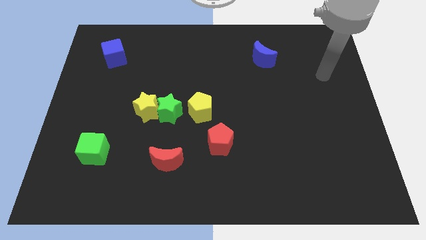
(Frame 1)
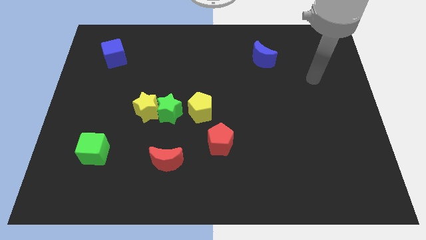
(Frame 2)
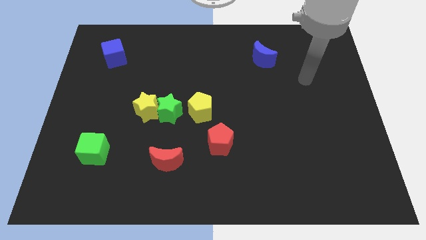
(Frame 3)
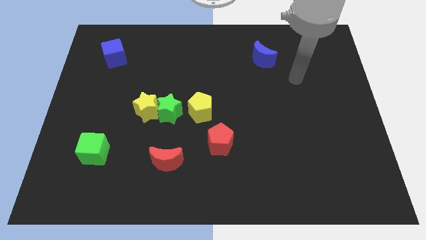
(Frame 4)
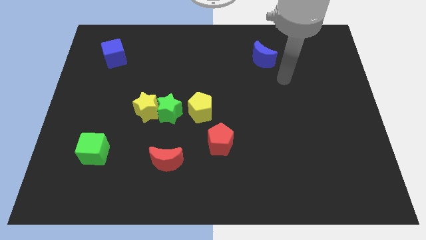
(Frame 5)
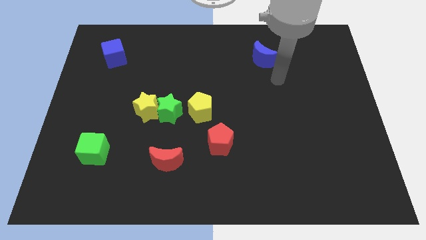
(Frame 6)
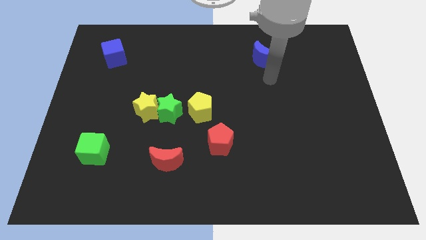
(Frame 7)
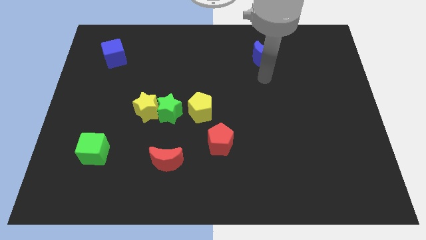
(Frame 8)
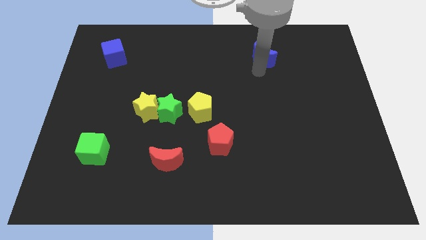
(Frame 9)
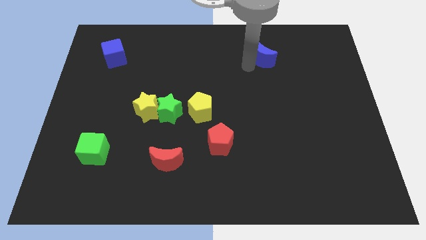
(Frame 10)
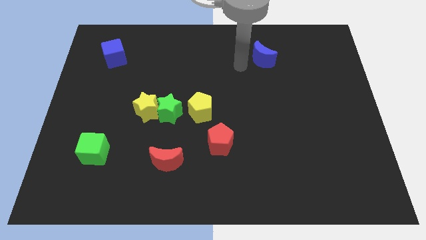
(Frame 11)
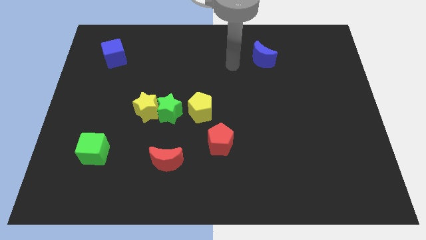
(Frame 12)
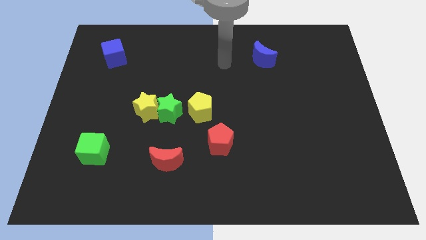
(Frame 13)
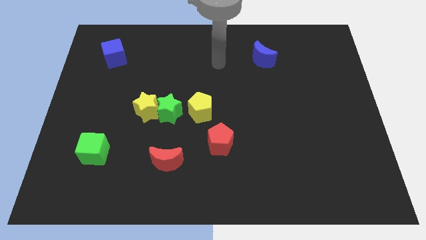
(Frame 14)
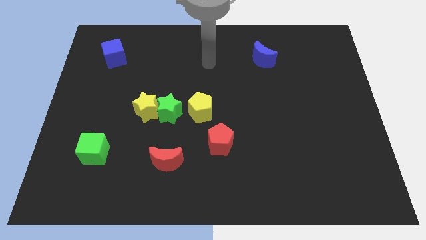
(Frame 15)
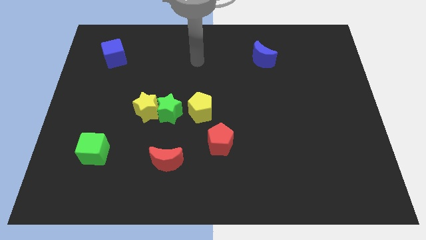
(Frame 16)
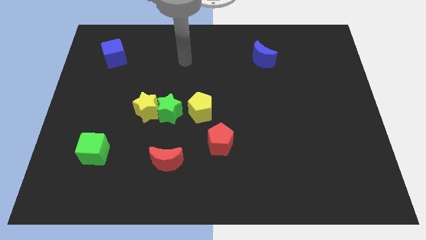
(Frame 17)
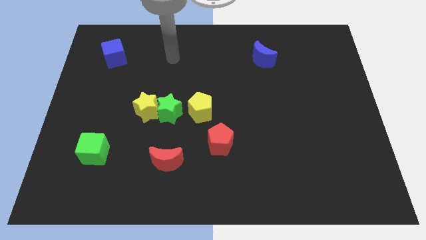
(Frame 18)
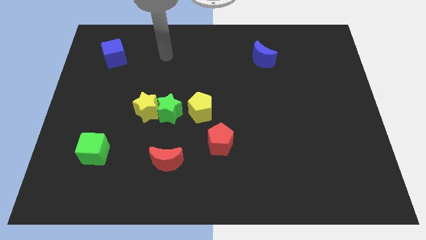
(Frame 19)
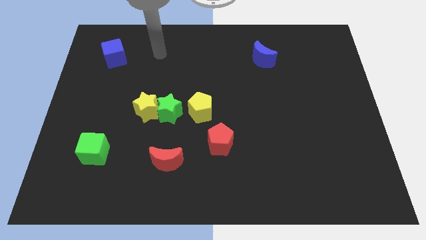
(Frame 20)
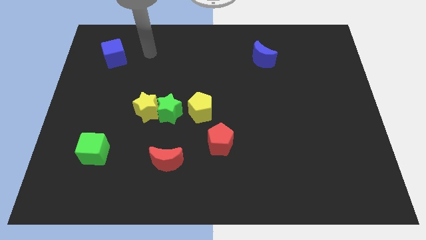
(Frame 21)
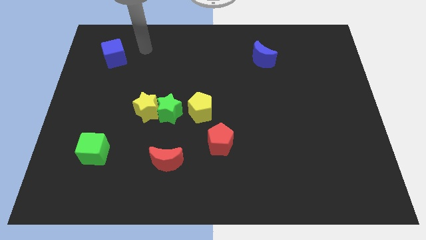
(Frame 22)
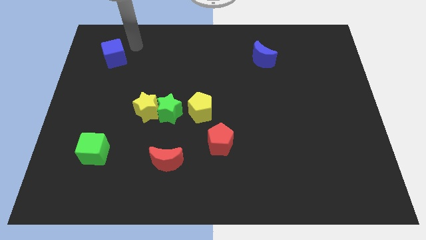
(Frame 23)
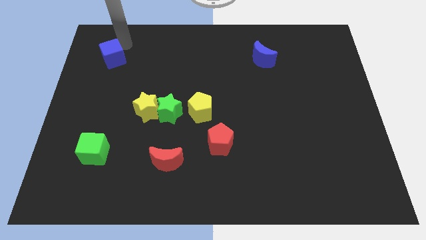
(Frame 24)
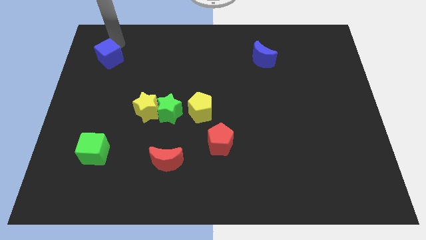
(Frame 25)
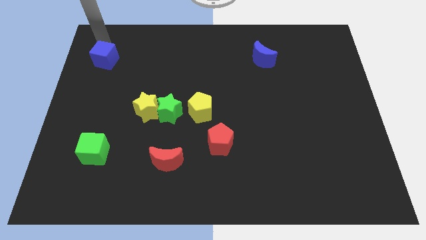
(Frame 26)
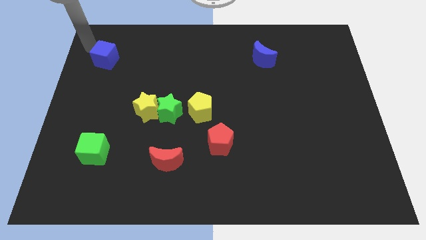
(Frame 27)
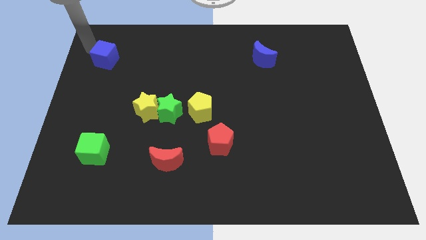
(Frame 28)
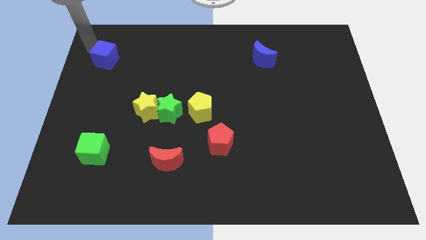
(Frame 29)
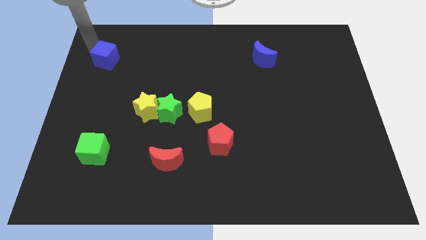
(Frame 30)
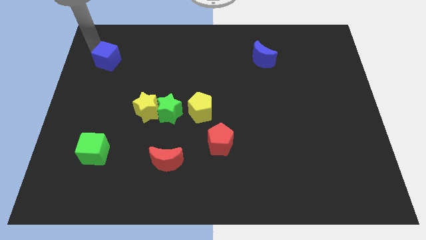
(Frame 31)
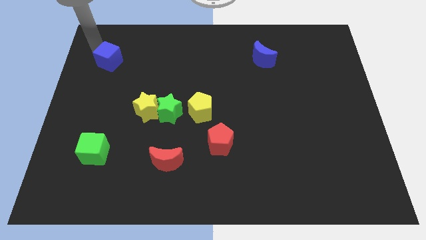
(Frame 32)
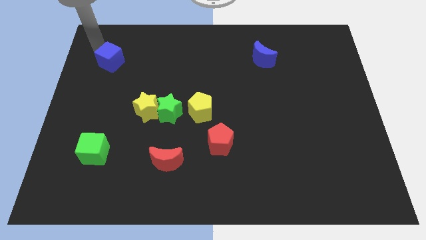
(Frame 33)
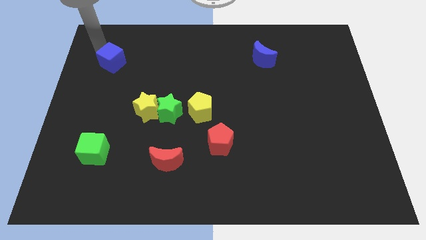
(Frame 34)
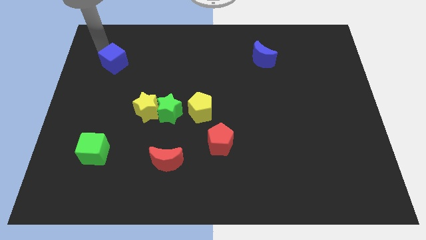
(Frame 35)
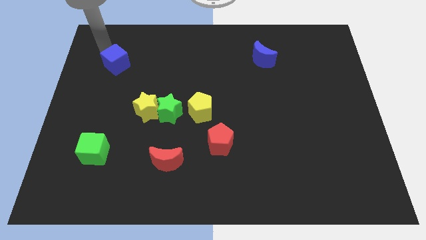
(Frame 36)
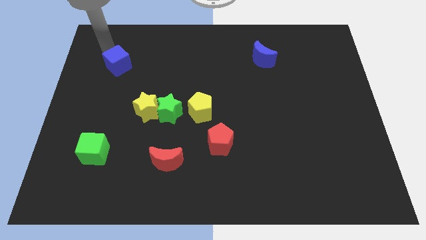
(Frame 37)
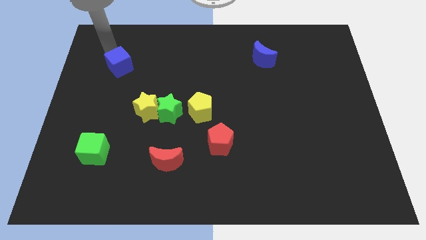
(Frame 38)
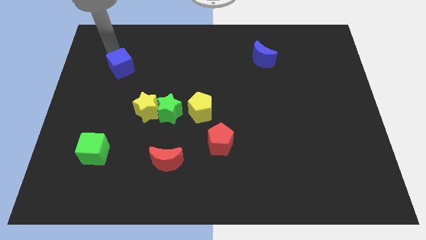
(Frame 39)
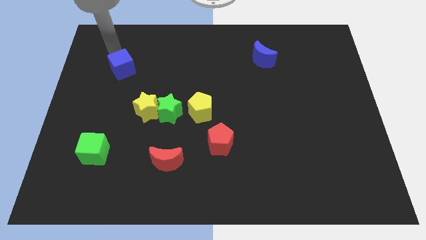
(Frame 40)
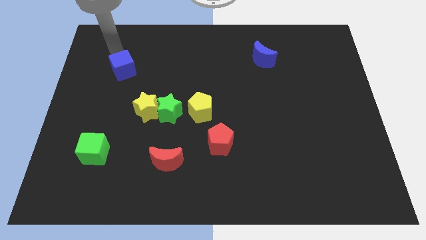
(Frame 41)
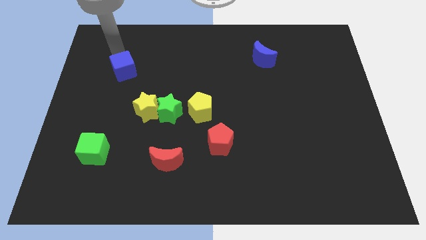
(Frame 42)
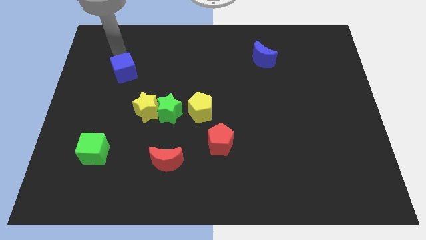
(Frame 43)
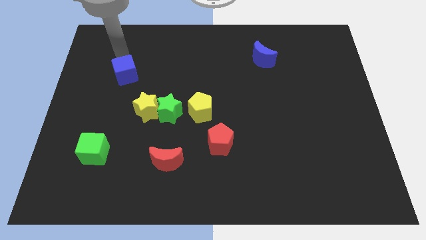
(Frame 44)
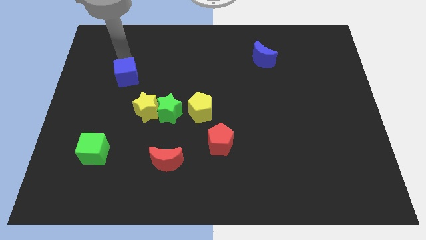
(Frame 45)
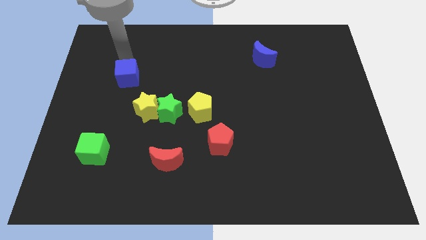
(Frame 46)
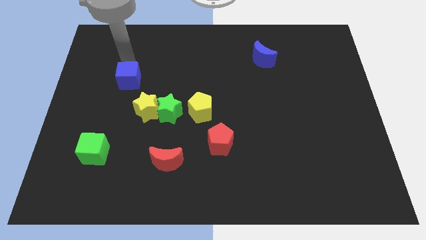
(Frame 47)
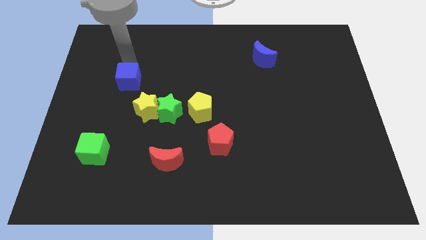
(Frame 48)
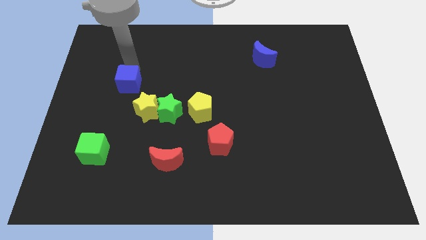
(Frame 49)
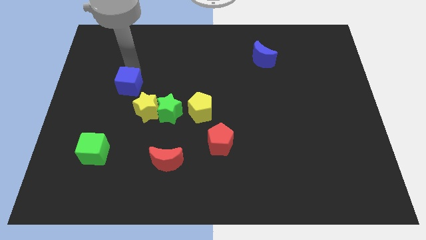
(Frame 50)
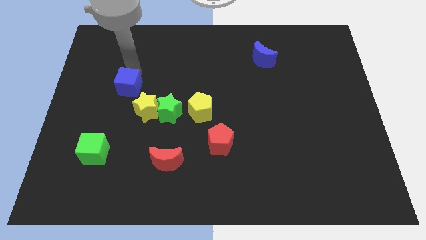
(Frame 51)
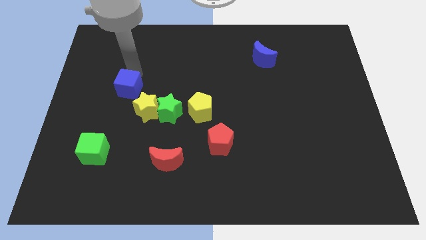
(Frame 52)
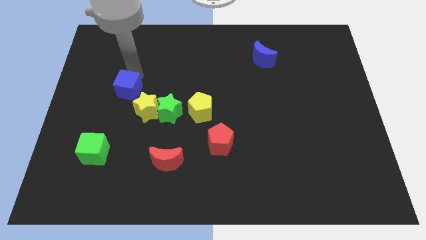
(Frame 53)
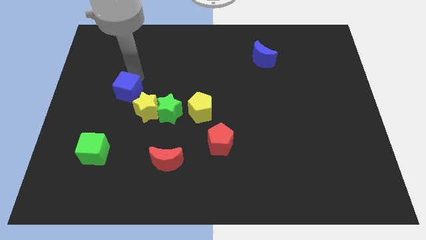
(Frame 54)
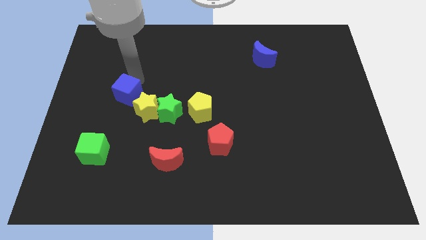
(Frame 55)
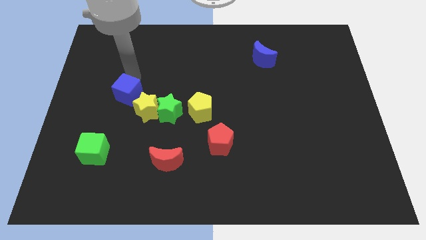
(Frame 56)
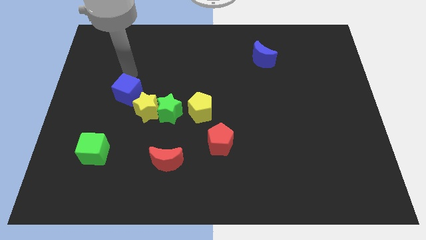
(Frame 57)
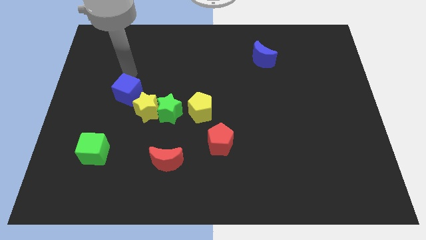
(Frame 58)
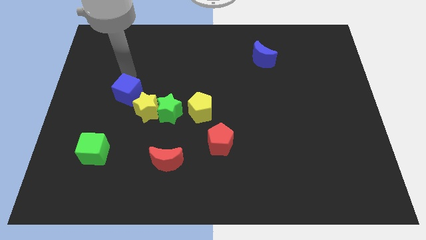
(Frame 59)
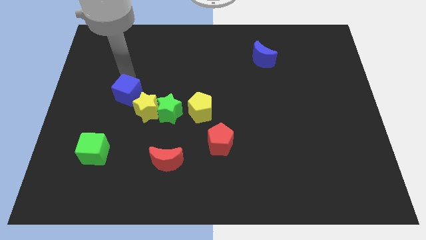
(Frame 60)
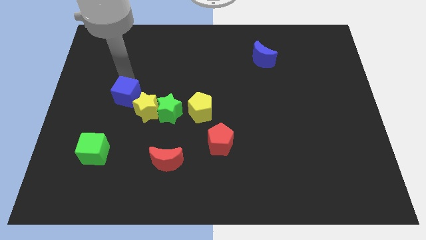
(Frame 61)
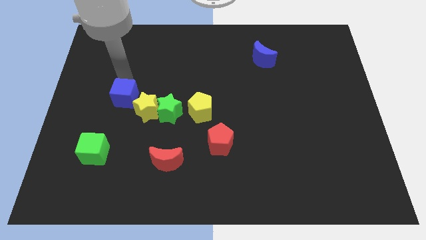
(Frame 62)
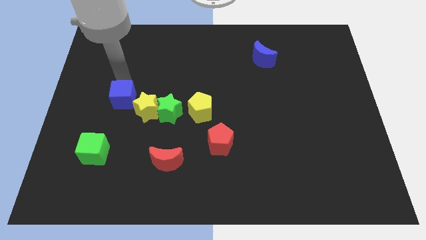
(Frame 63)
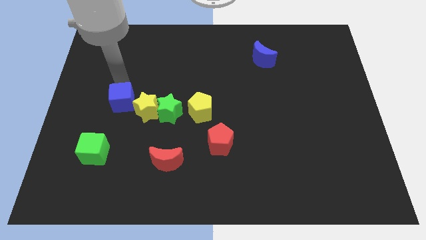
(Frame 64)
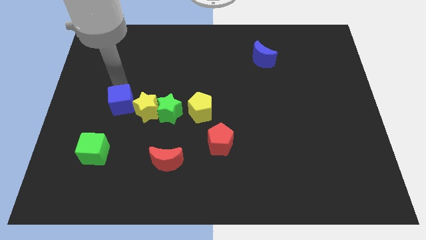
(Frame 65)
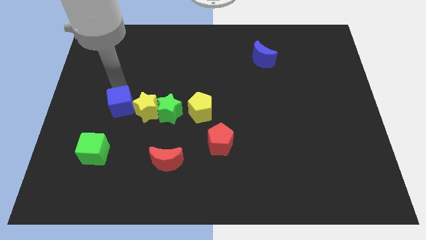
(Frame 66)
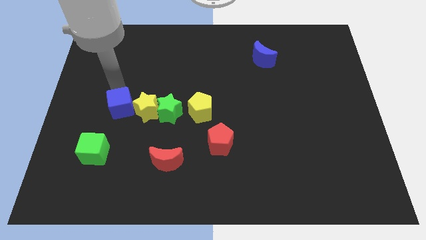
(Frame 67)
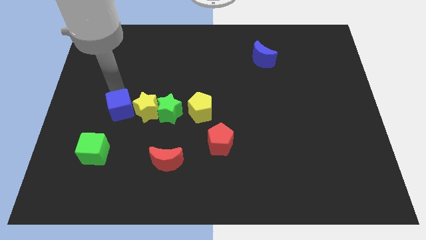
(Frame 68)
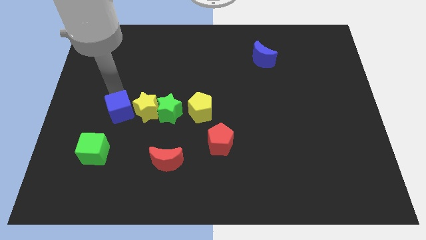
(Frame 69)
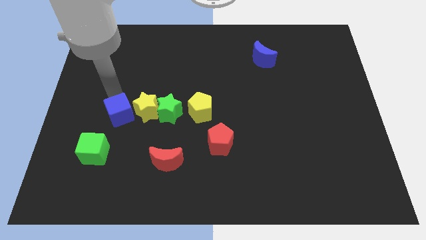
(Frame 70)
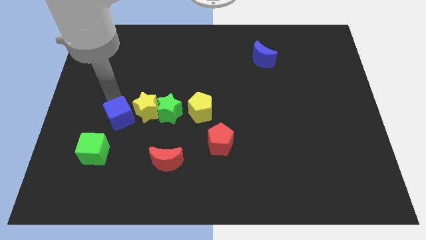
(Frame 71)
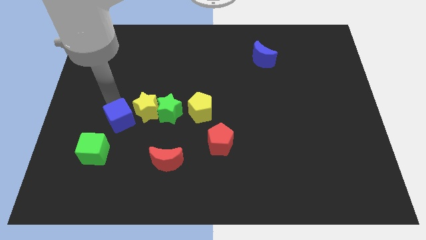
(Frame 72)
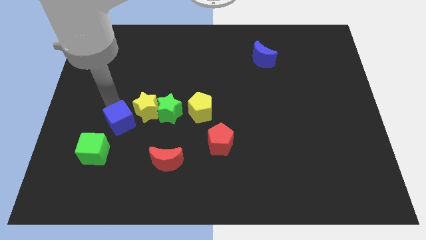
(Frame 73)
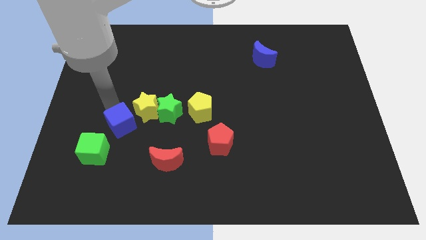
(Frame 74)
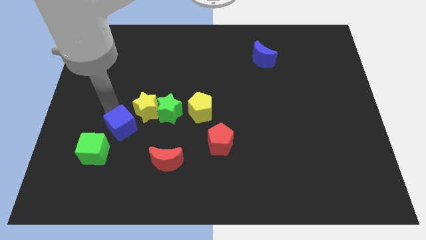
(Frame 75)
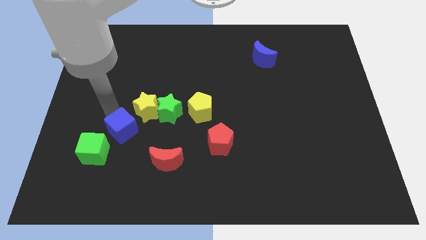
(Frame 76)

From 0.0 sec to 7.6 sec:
put the blue cube to the bottom left side of the green star
